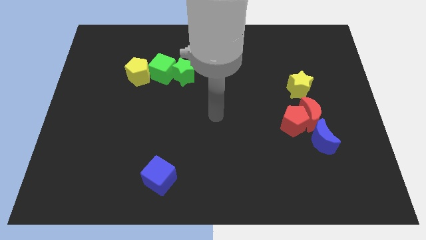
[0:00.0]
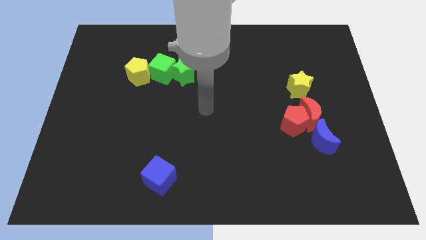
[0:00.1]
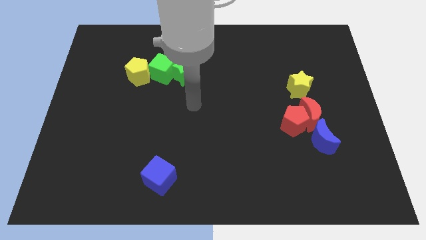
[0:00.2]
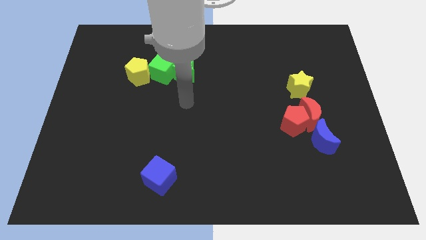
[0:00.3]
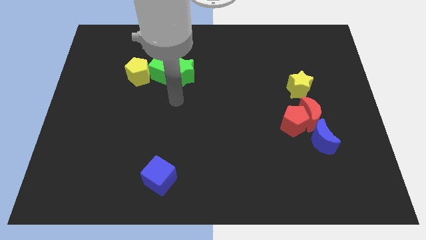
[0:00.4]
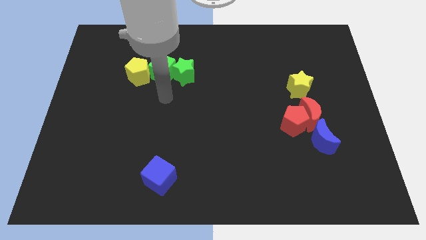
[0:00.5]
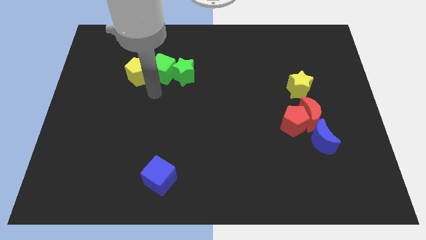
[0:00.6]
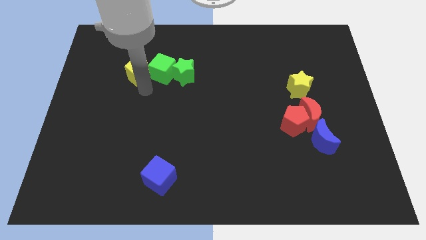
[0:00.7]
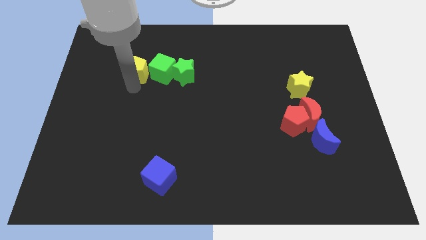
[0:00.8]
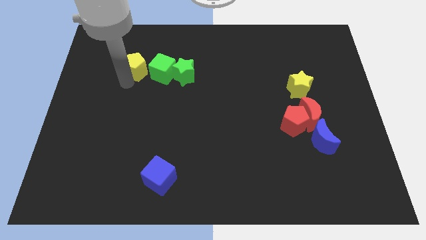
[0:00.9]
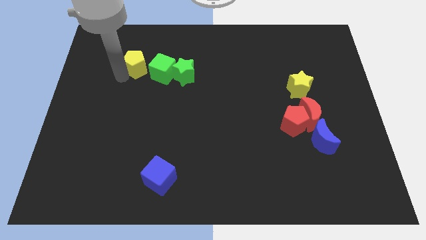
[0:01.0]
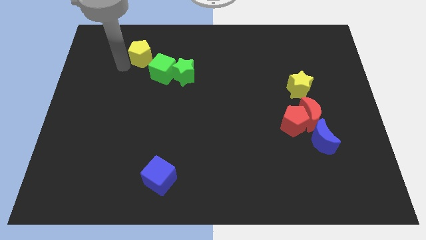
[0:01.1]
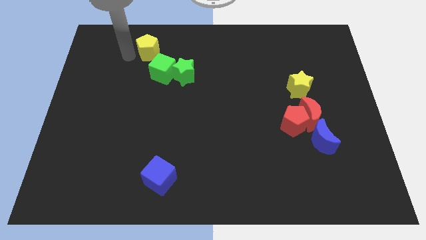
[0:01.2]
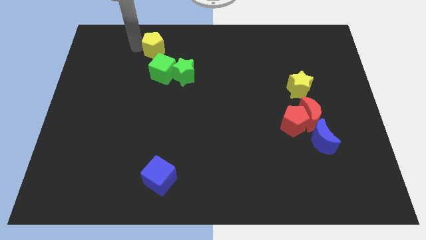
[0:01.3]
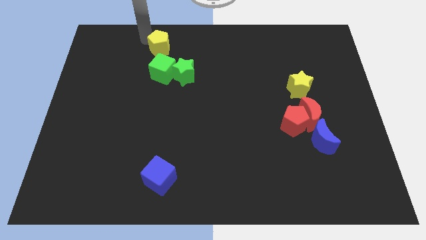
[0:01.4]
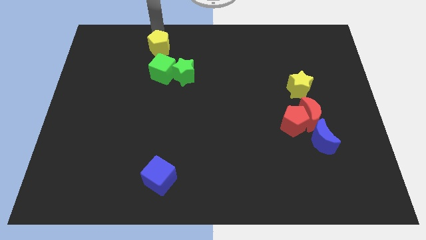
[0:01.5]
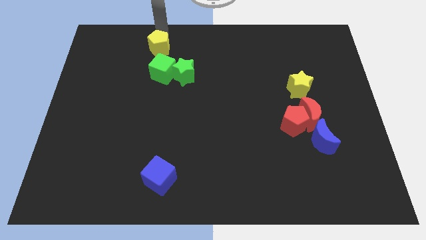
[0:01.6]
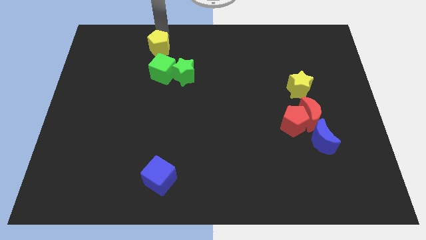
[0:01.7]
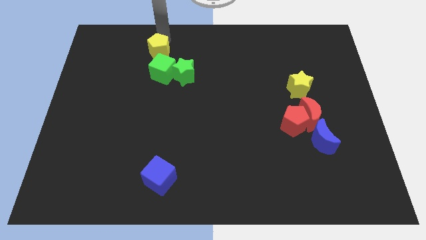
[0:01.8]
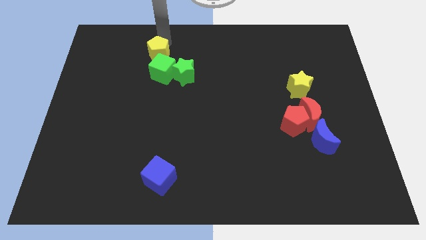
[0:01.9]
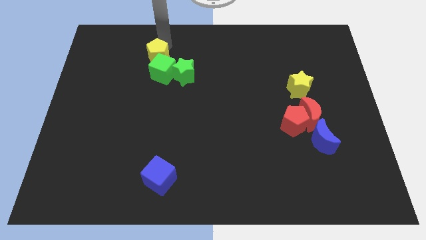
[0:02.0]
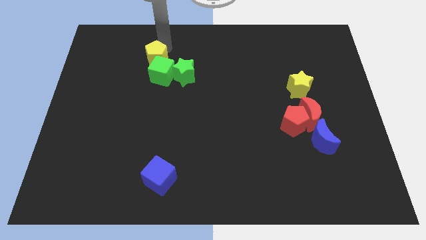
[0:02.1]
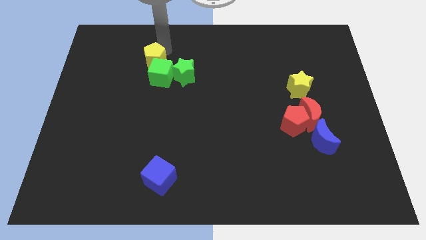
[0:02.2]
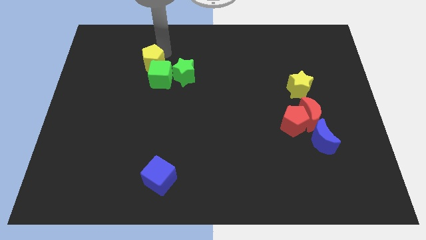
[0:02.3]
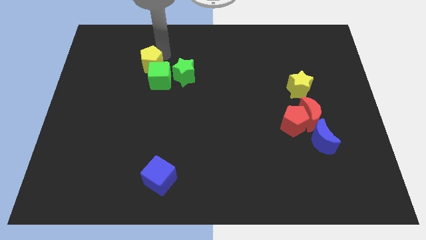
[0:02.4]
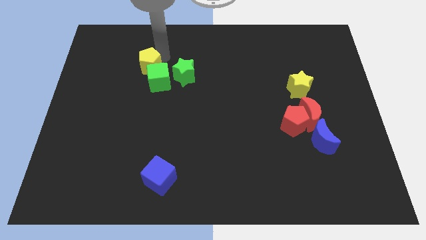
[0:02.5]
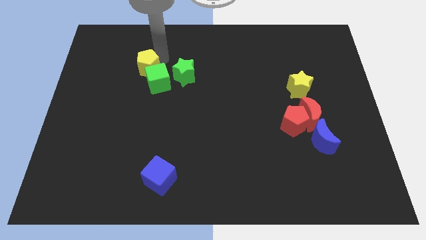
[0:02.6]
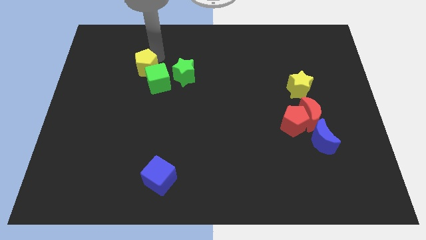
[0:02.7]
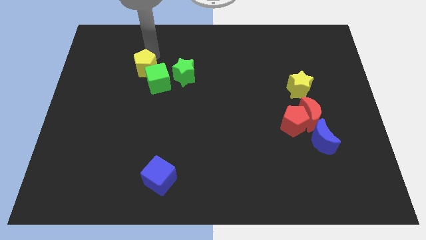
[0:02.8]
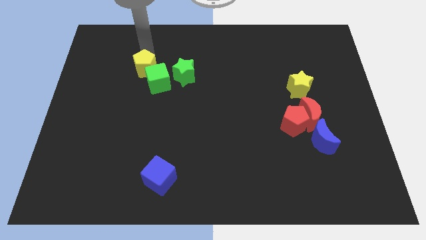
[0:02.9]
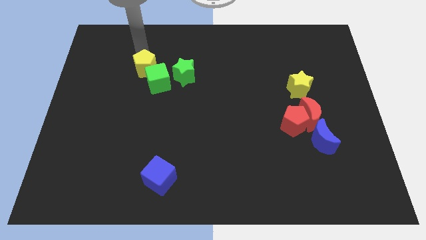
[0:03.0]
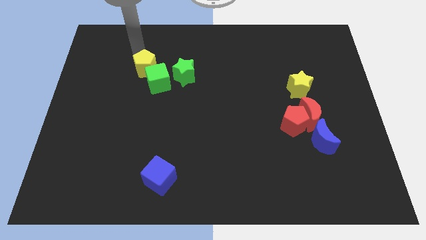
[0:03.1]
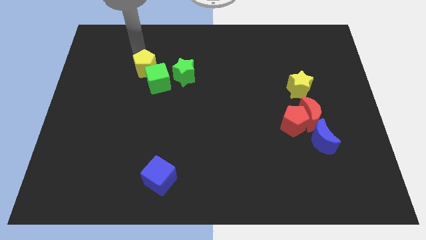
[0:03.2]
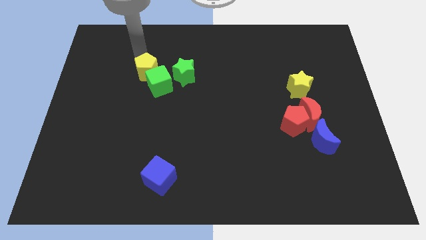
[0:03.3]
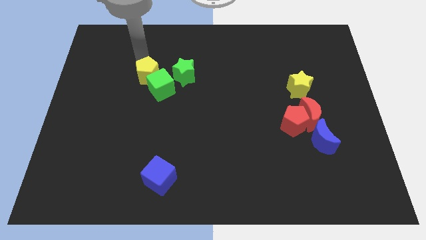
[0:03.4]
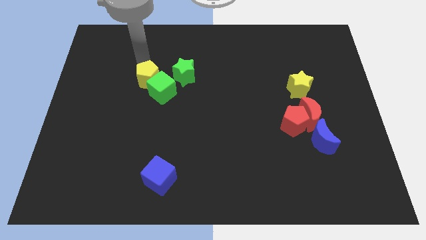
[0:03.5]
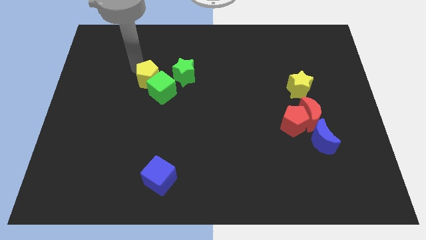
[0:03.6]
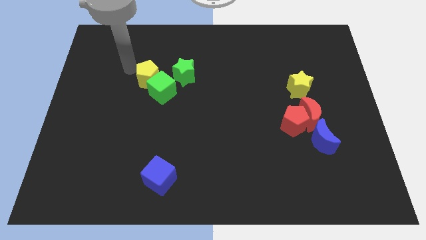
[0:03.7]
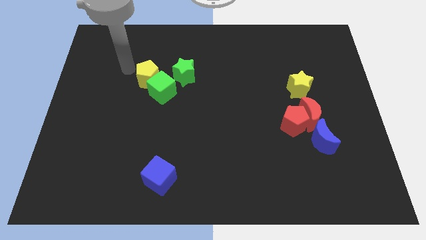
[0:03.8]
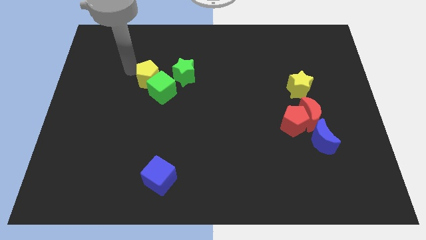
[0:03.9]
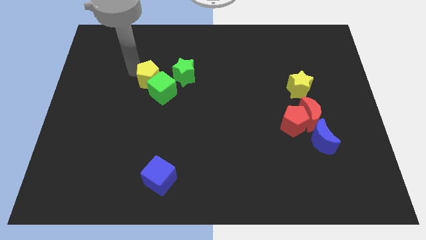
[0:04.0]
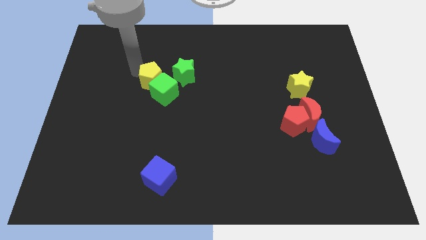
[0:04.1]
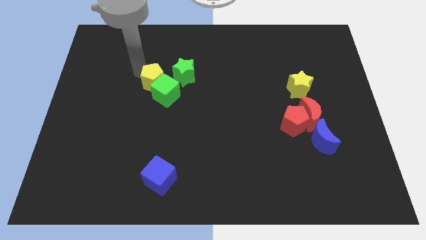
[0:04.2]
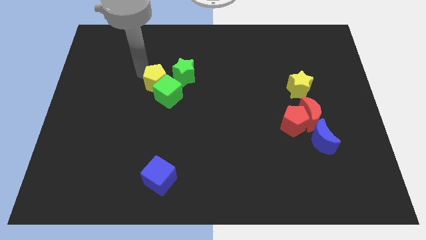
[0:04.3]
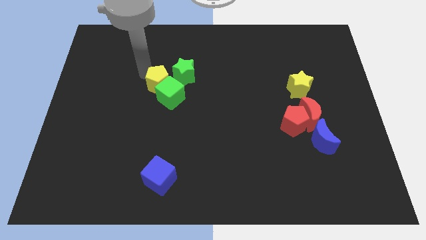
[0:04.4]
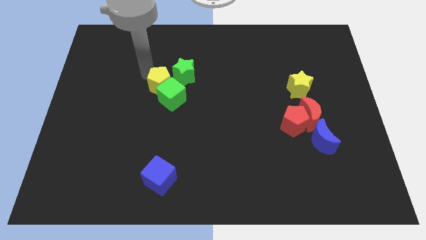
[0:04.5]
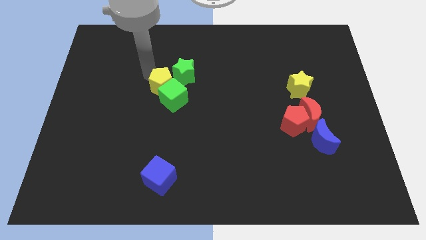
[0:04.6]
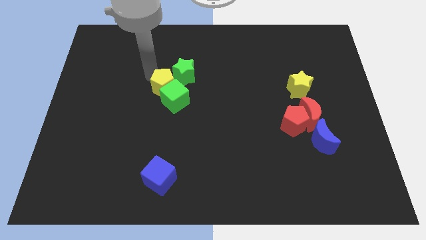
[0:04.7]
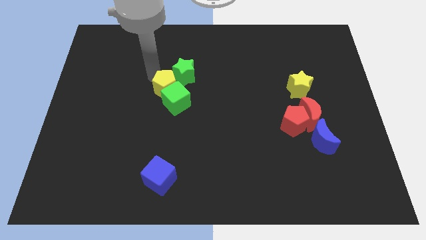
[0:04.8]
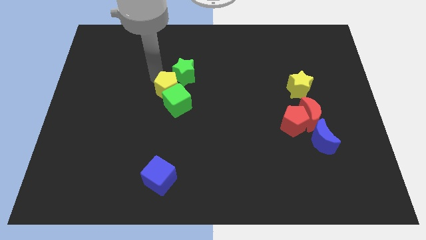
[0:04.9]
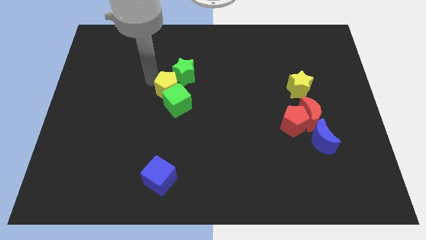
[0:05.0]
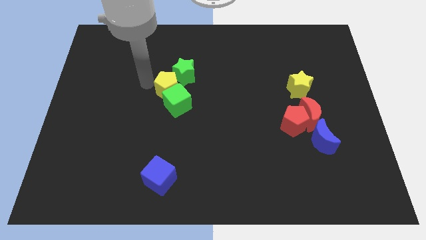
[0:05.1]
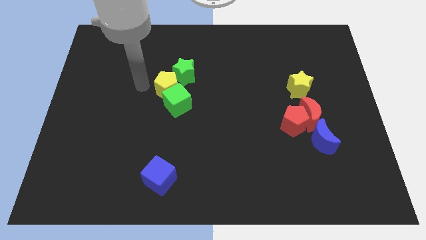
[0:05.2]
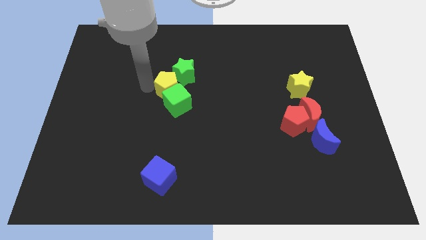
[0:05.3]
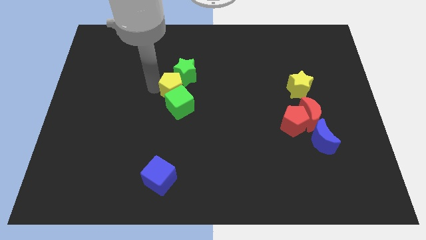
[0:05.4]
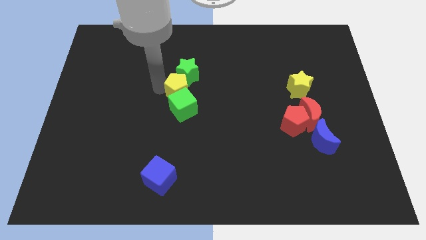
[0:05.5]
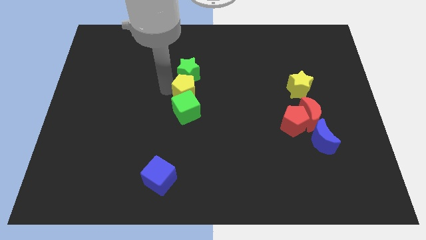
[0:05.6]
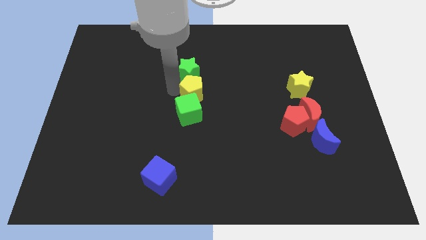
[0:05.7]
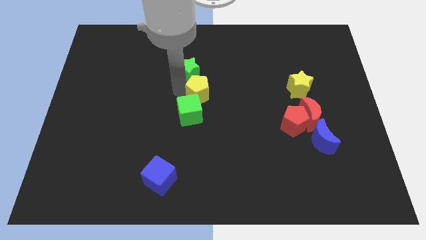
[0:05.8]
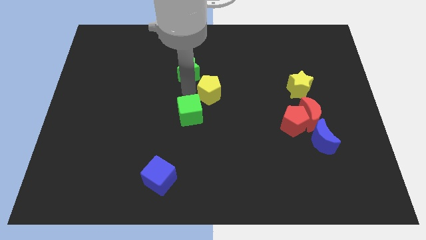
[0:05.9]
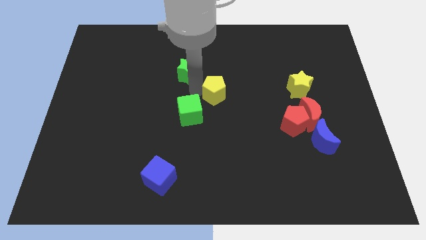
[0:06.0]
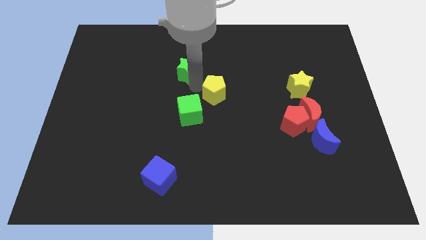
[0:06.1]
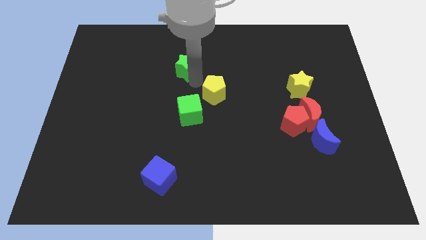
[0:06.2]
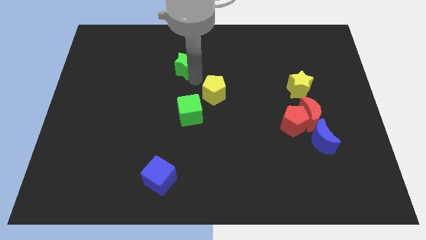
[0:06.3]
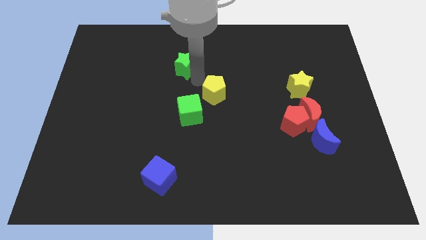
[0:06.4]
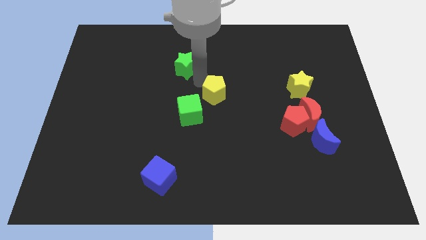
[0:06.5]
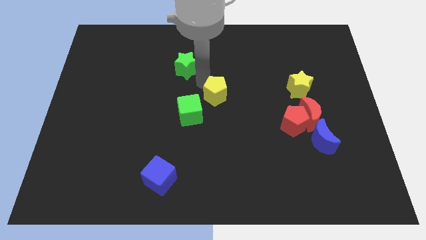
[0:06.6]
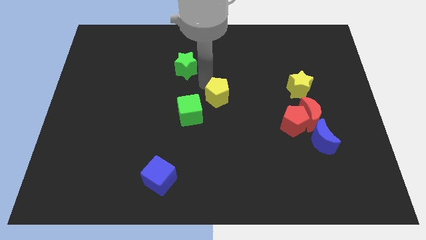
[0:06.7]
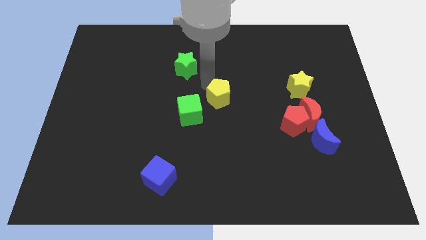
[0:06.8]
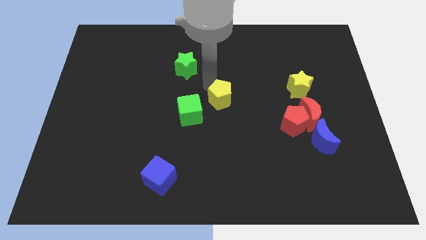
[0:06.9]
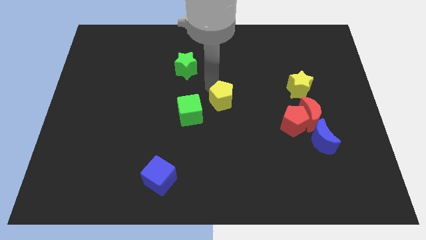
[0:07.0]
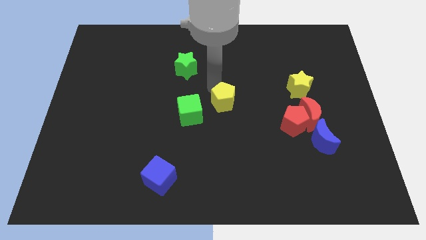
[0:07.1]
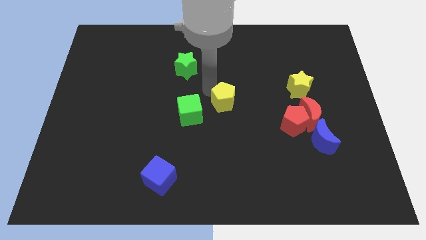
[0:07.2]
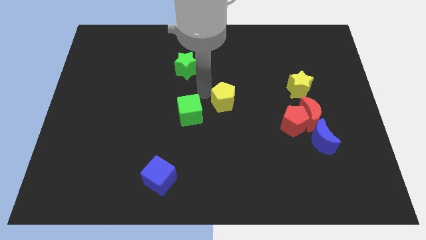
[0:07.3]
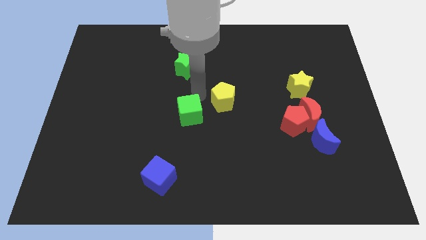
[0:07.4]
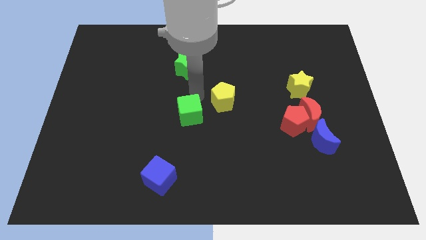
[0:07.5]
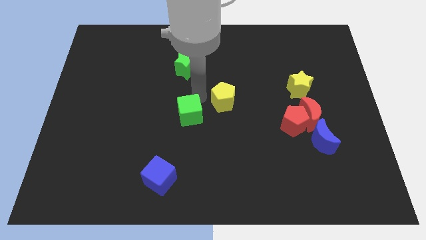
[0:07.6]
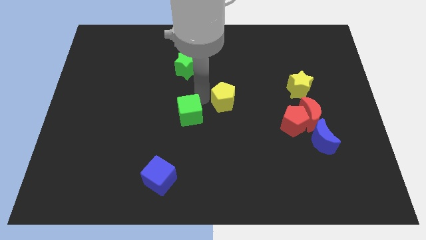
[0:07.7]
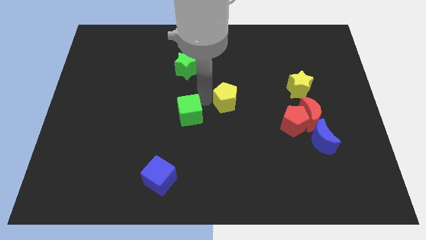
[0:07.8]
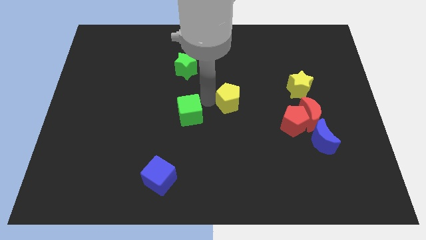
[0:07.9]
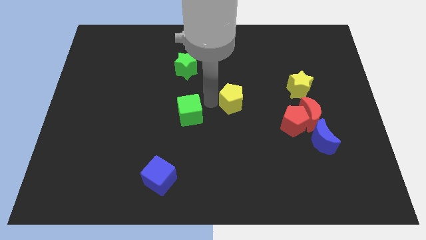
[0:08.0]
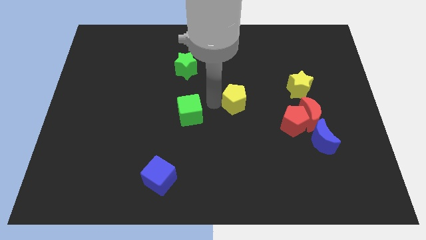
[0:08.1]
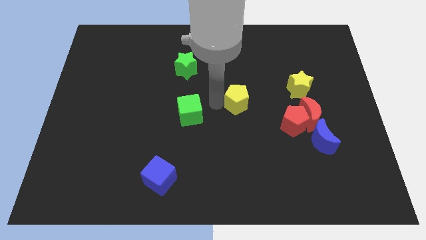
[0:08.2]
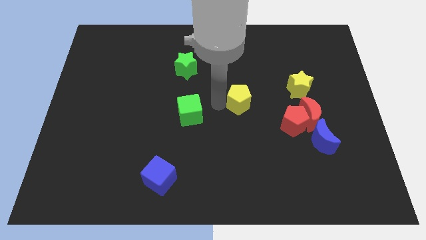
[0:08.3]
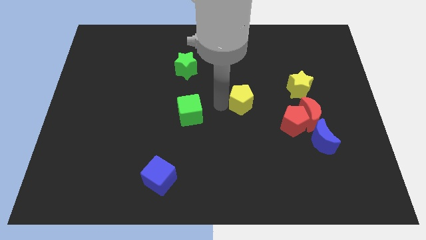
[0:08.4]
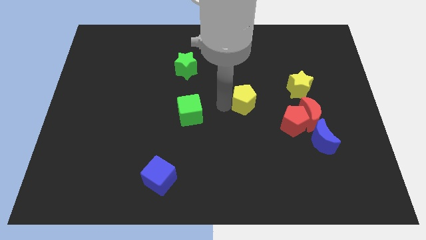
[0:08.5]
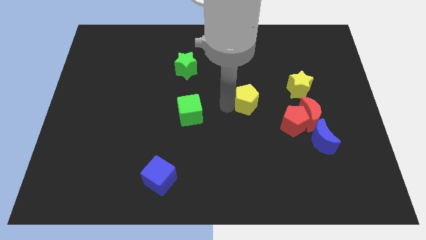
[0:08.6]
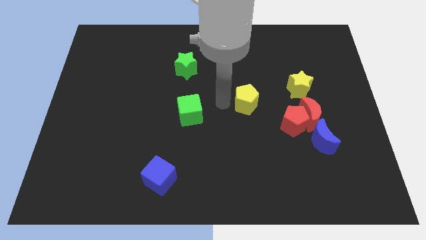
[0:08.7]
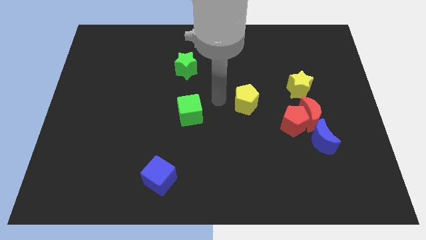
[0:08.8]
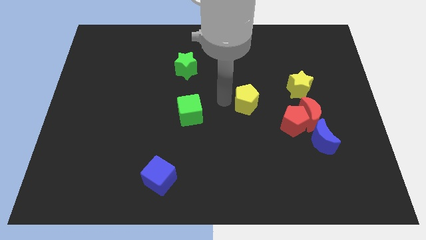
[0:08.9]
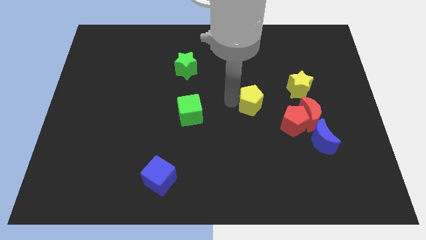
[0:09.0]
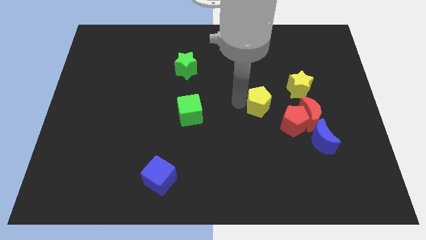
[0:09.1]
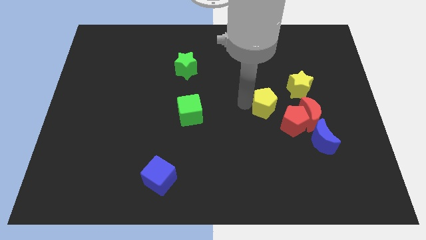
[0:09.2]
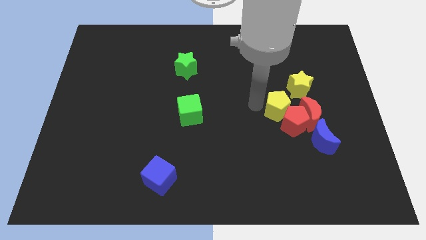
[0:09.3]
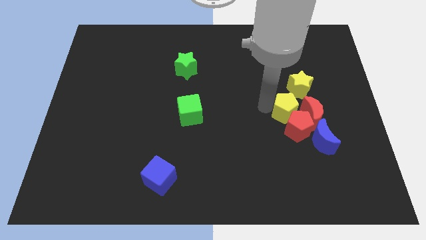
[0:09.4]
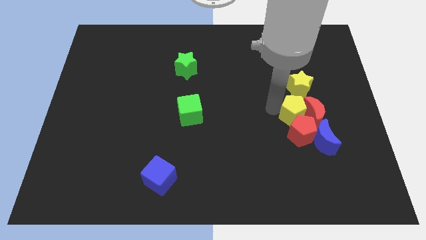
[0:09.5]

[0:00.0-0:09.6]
put the yellow pentagon next to the red moon
